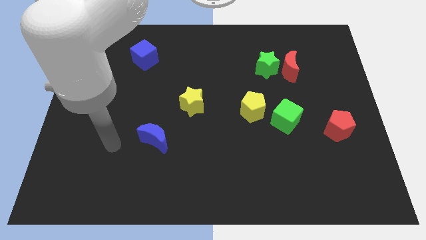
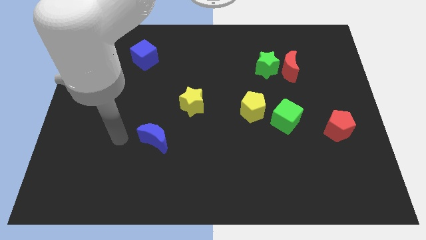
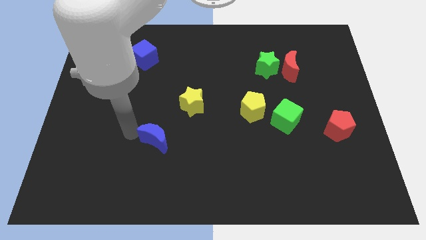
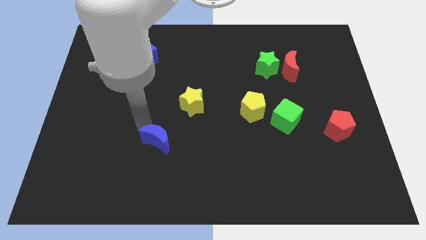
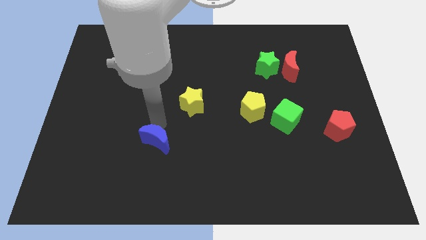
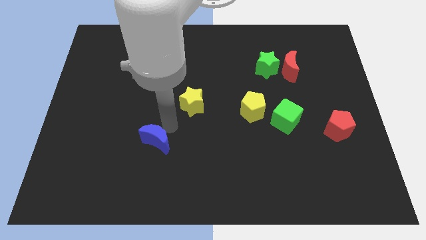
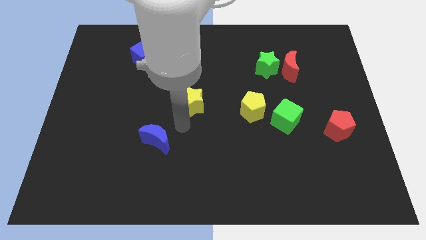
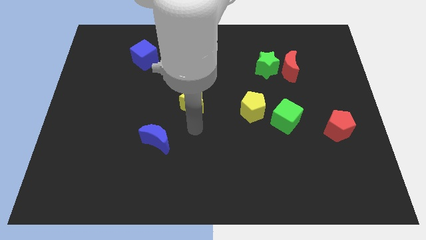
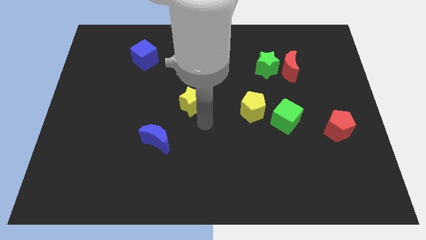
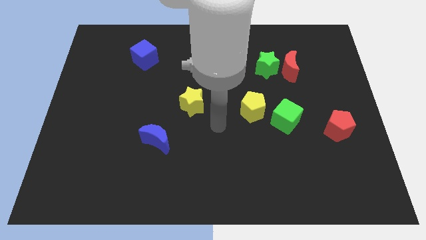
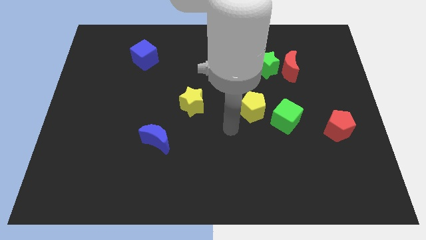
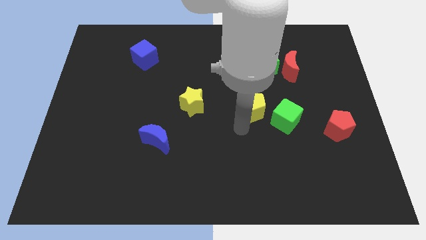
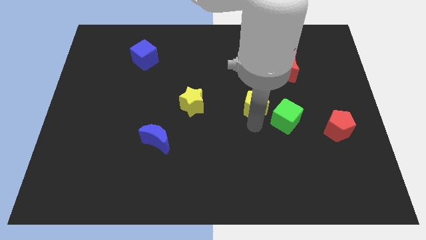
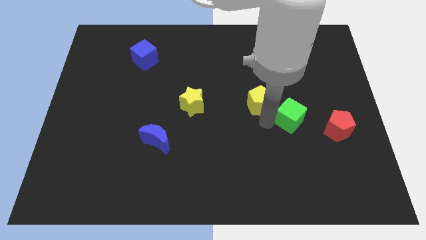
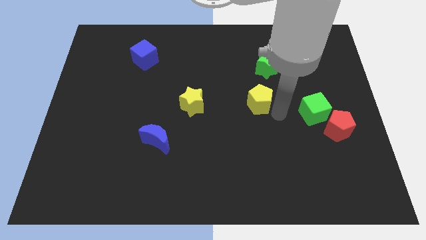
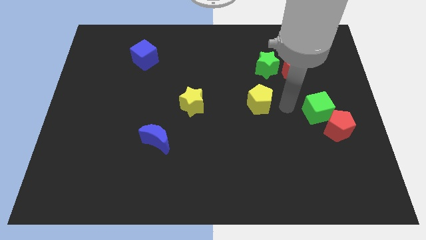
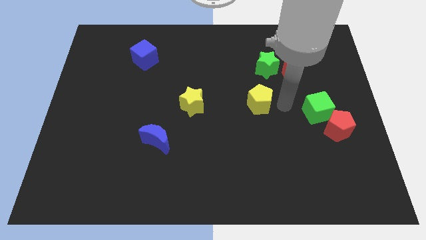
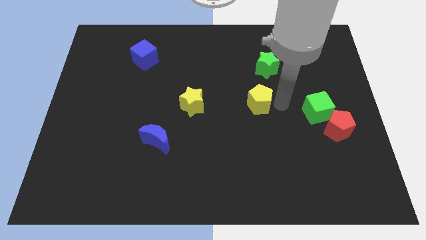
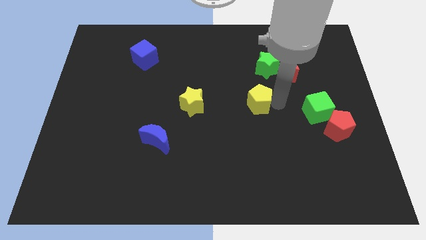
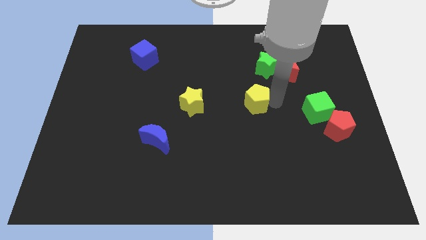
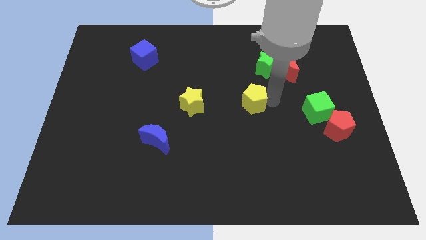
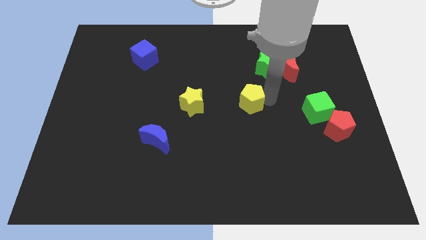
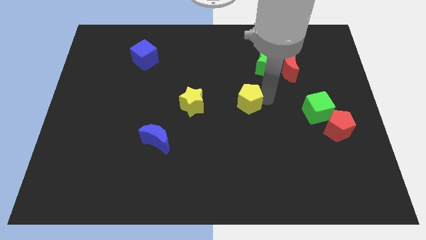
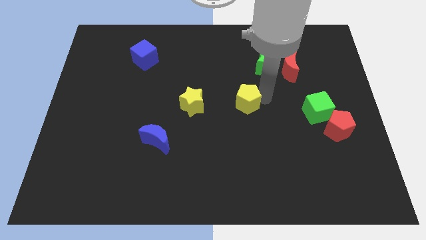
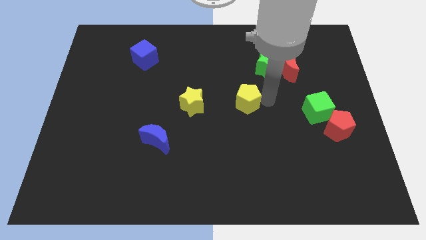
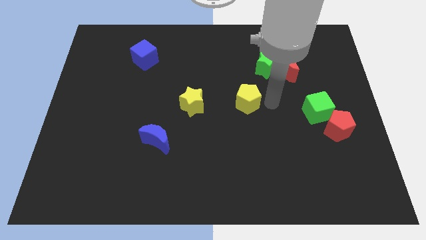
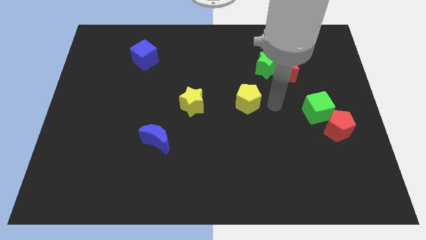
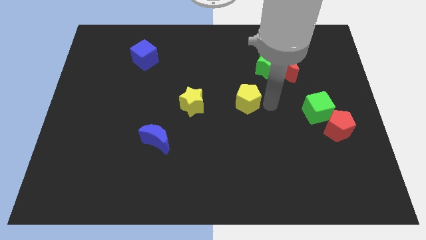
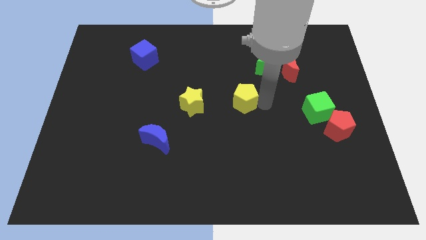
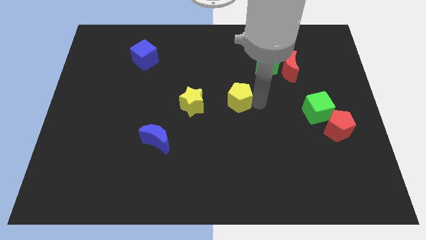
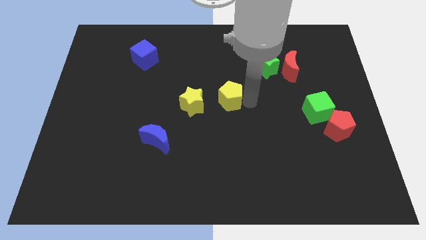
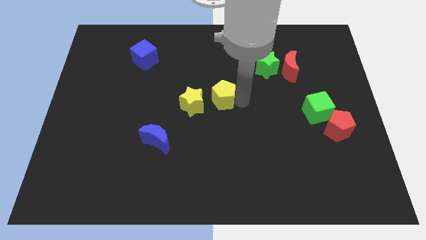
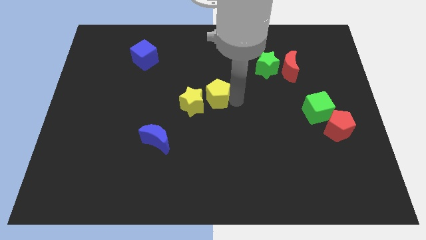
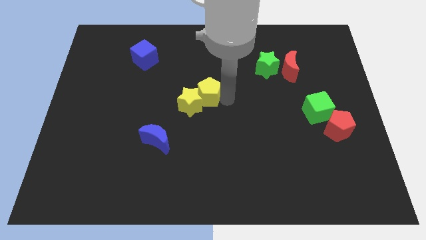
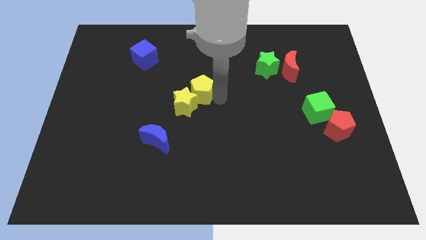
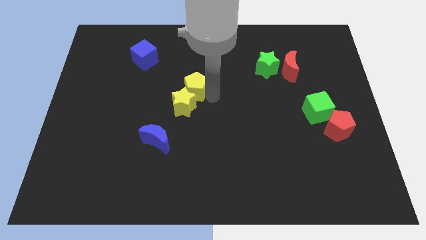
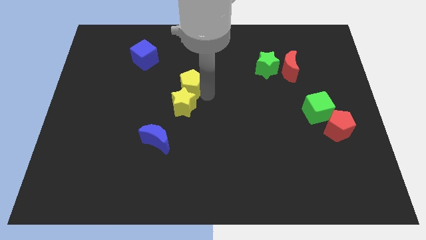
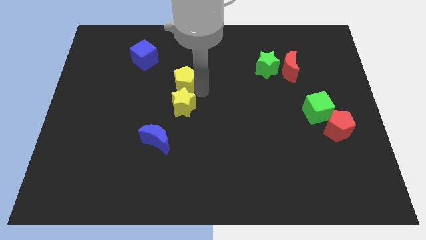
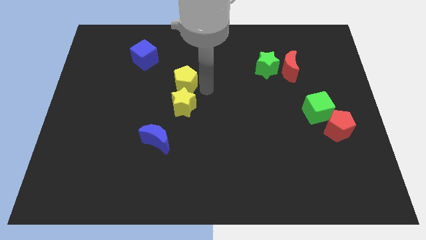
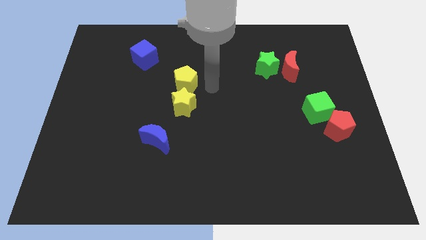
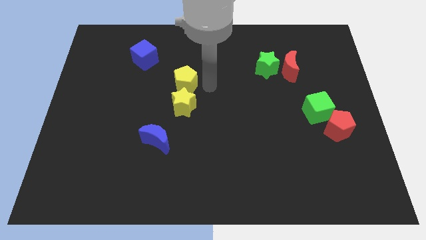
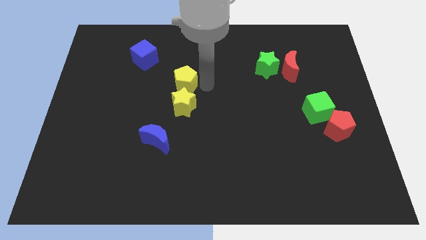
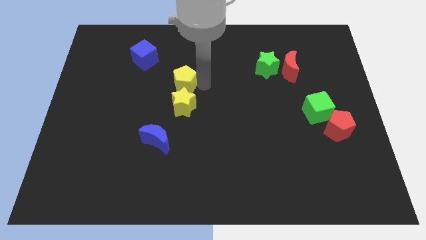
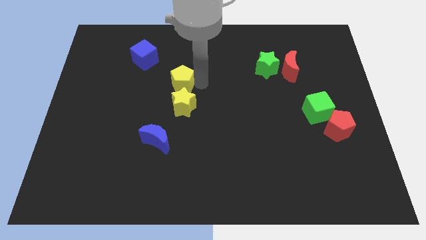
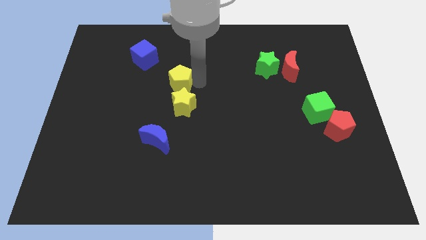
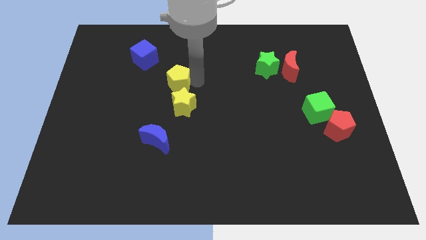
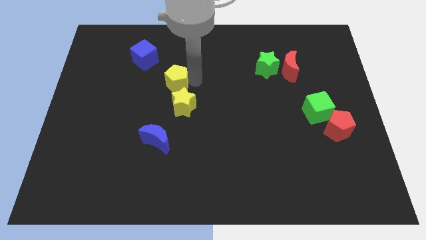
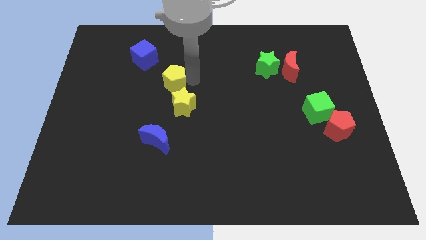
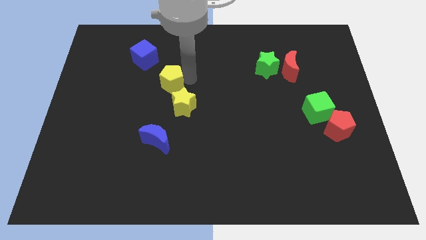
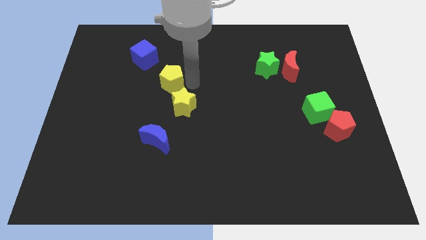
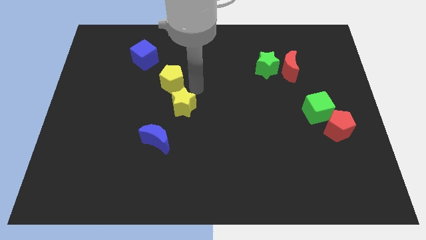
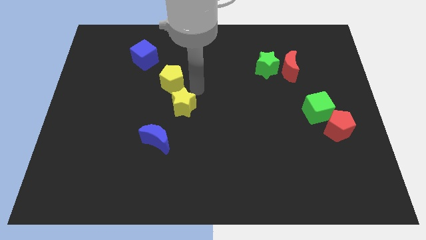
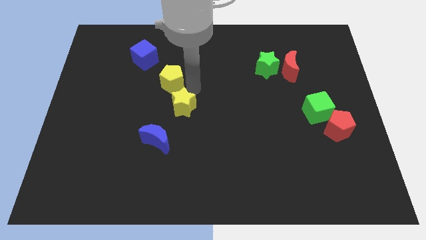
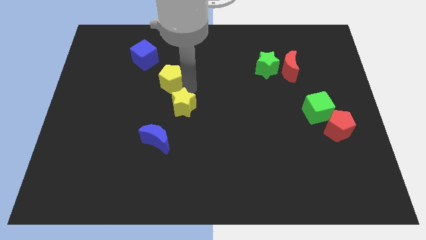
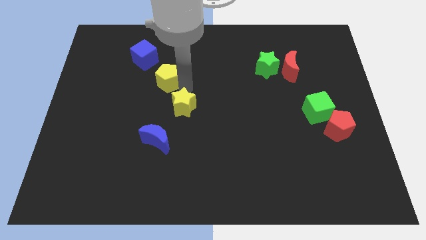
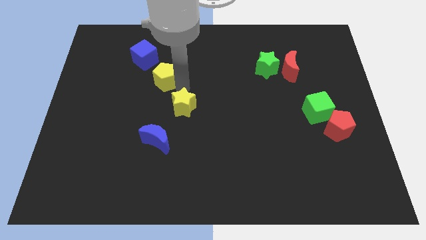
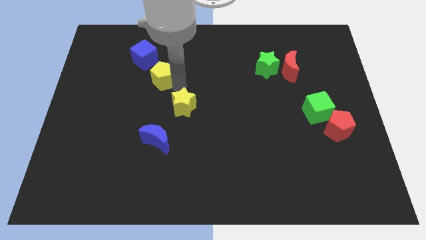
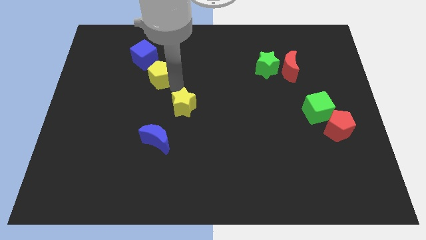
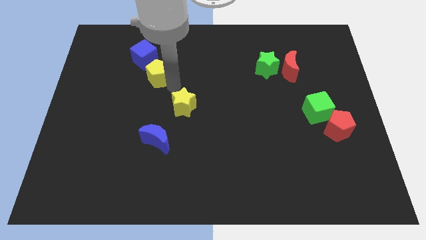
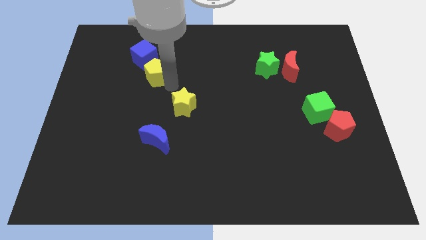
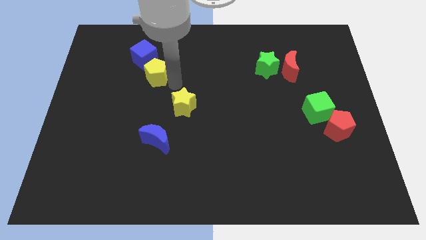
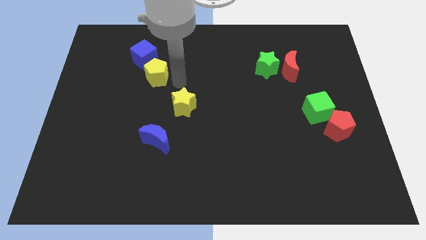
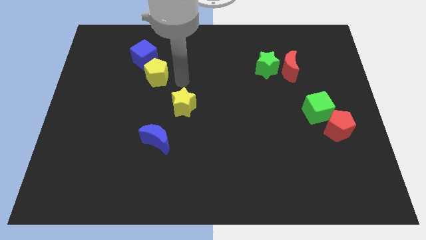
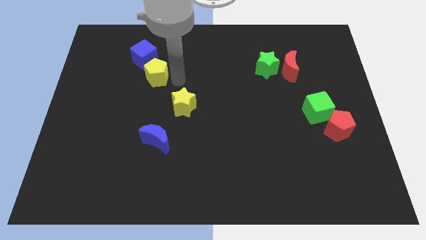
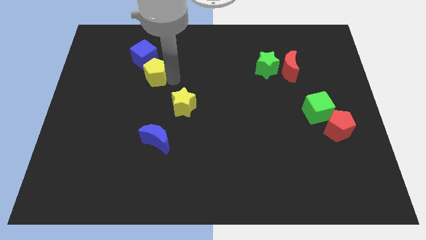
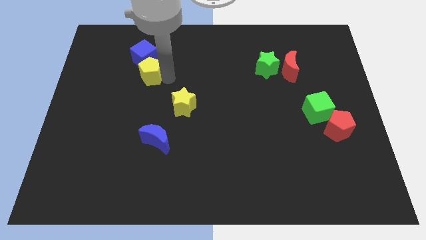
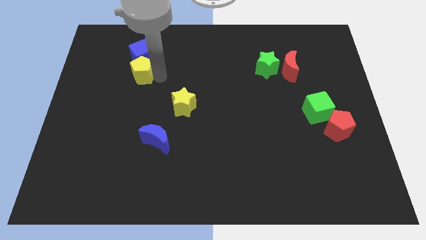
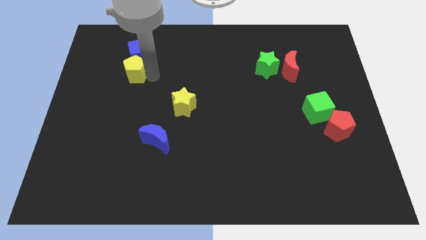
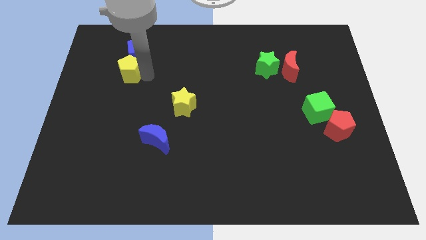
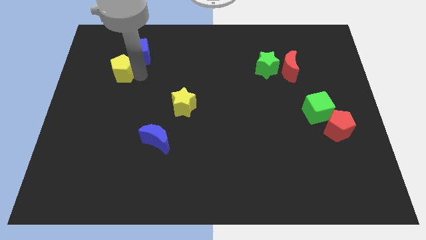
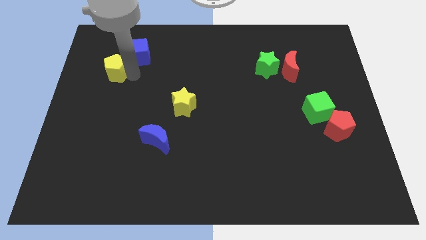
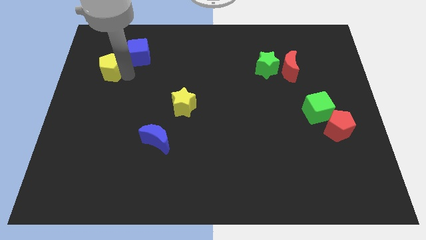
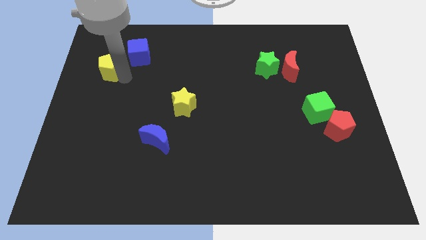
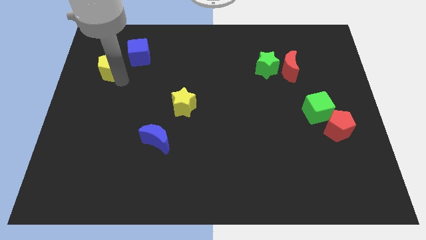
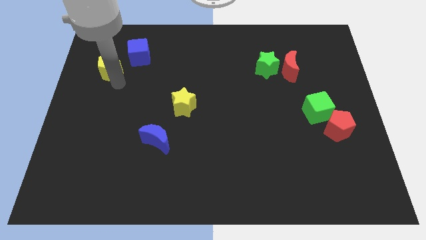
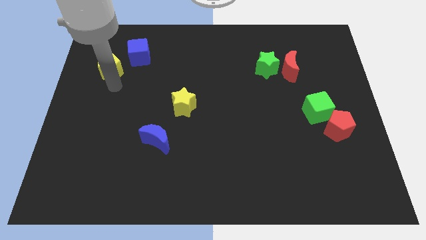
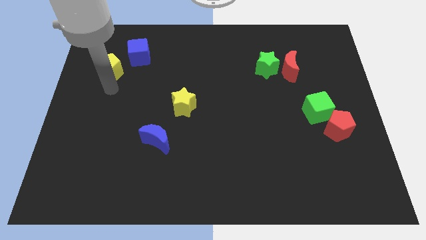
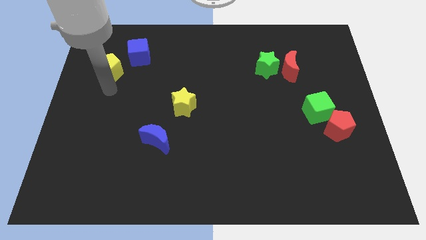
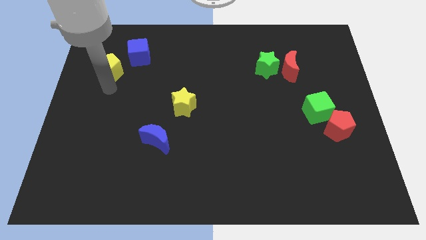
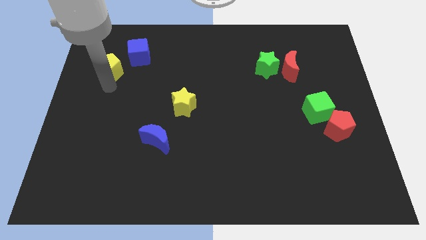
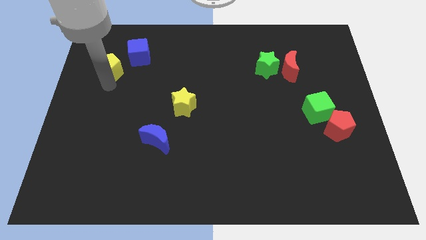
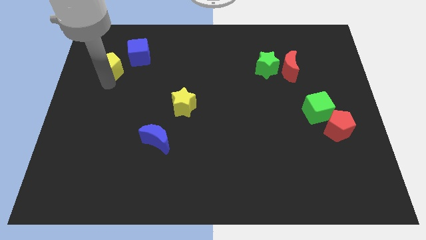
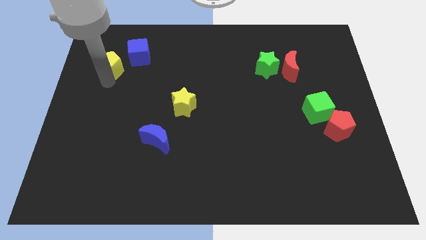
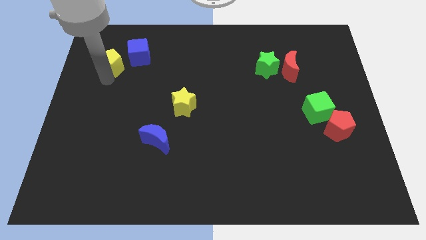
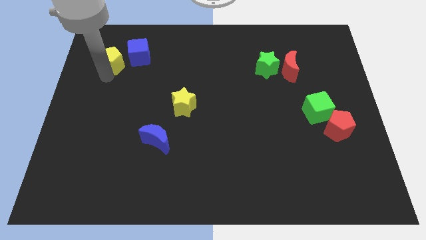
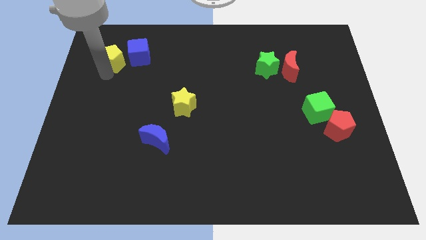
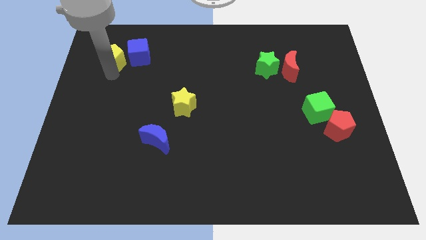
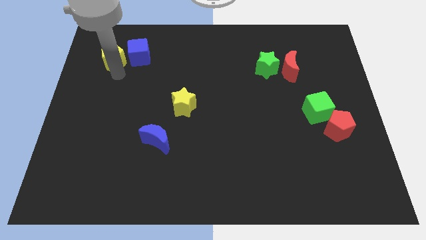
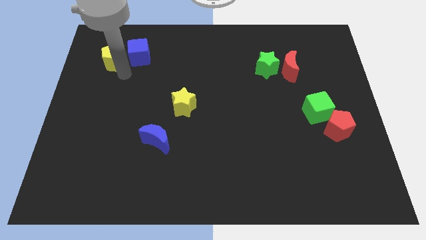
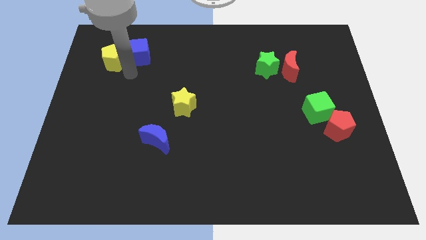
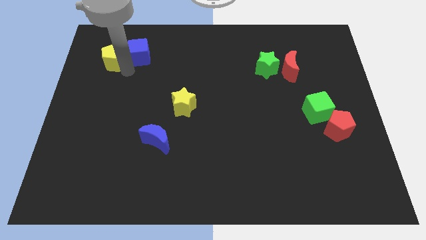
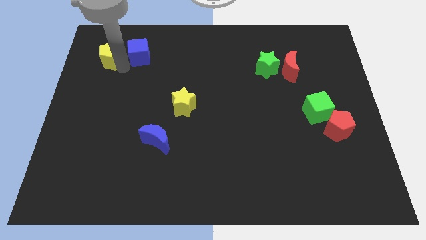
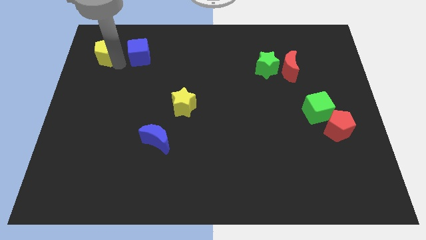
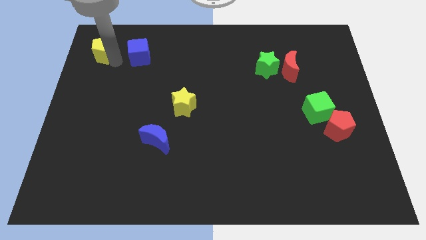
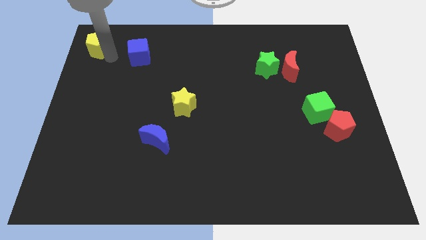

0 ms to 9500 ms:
move the yellow pentagon to the top left corner
